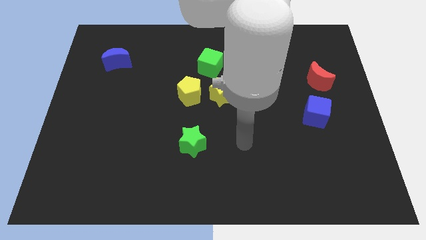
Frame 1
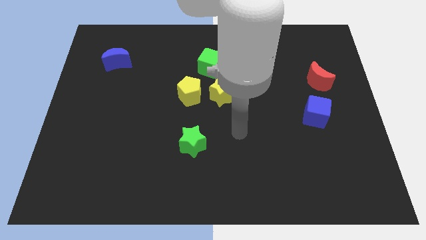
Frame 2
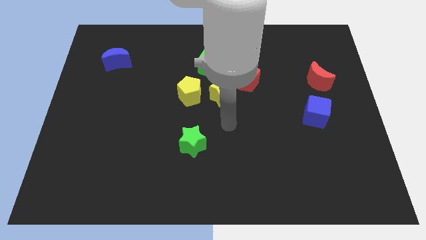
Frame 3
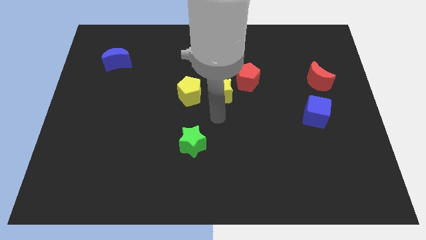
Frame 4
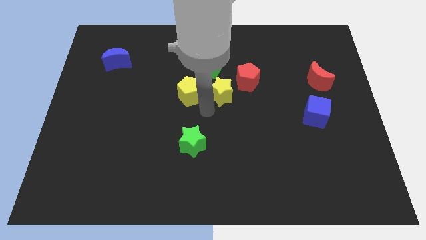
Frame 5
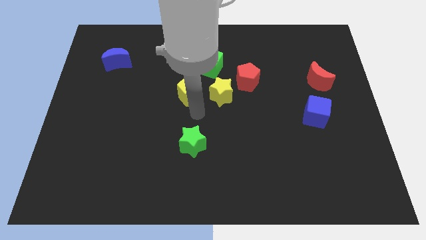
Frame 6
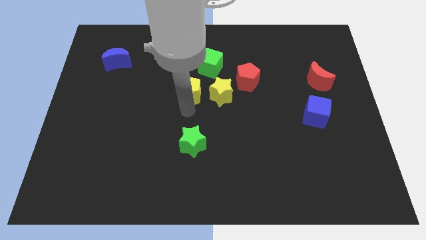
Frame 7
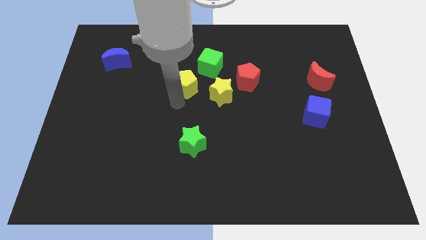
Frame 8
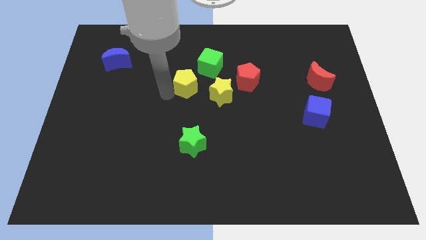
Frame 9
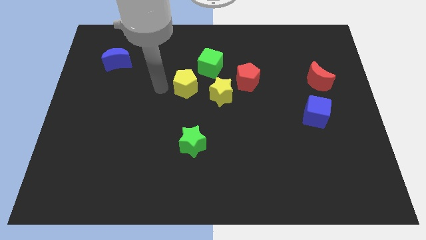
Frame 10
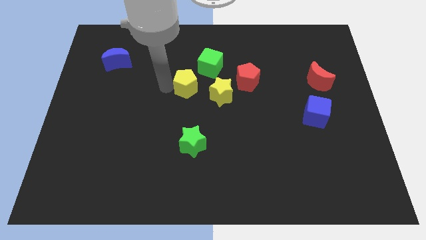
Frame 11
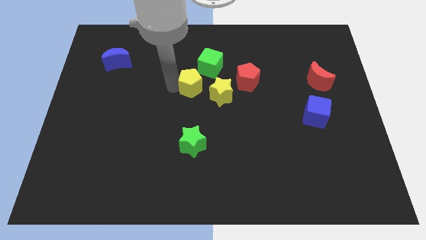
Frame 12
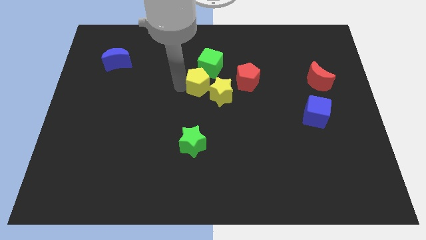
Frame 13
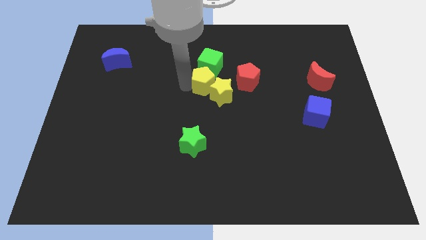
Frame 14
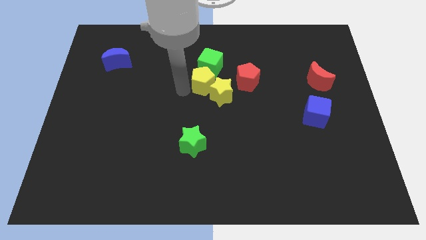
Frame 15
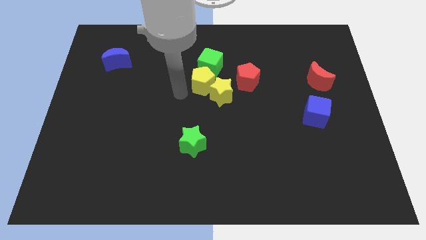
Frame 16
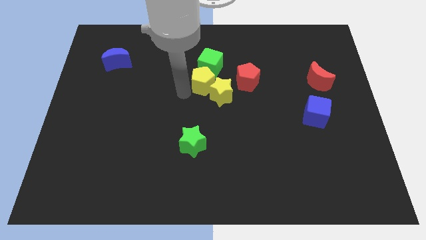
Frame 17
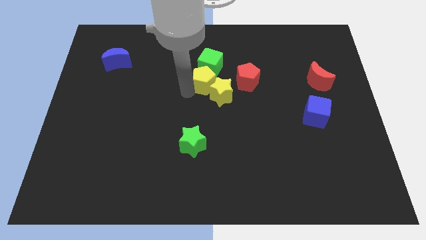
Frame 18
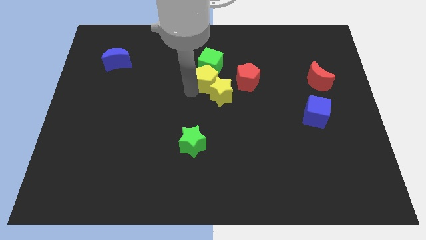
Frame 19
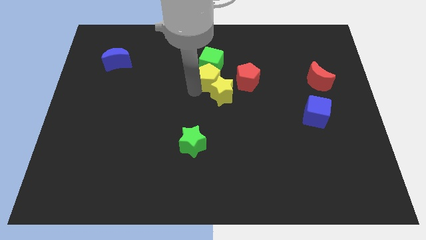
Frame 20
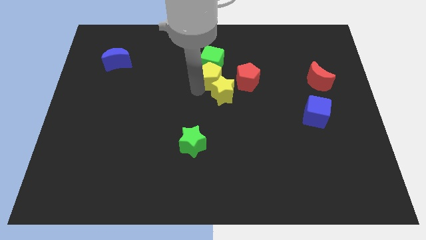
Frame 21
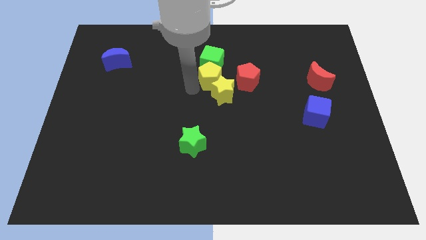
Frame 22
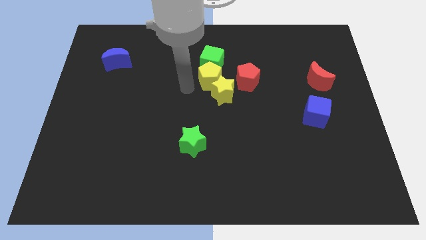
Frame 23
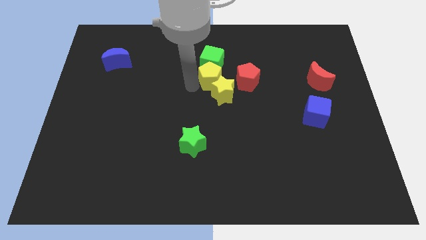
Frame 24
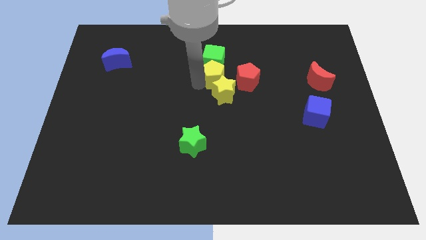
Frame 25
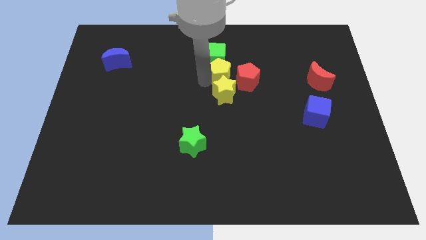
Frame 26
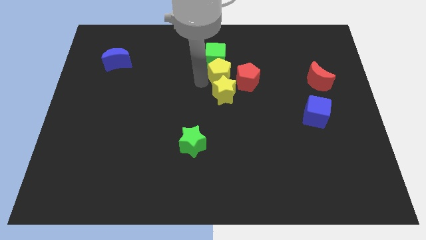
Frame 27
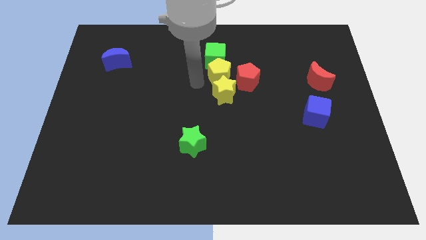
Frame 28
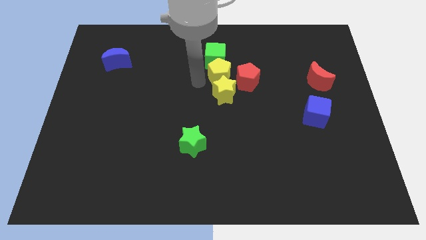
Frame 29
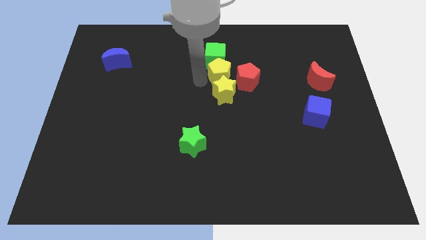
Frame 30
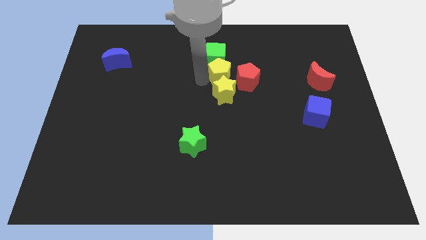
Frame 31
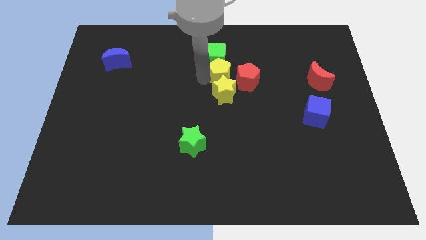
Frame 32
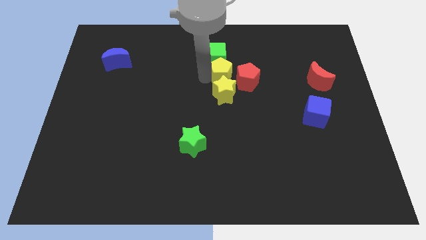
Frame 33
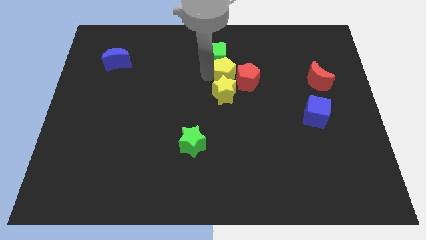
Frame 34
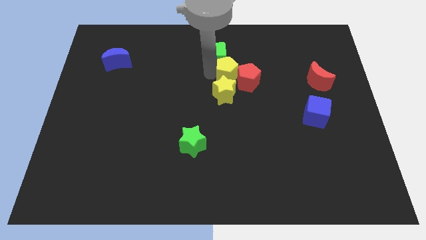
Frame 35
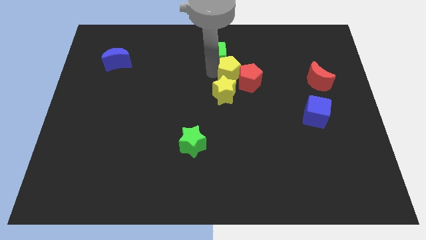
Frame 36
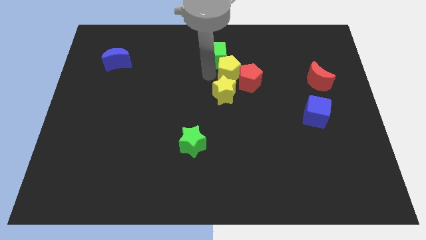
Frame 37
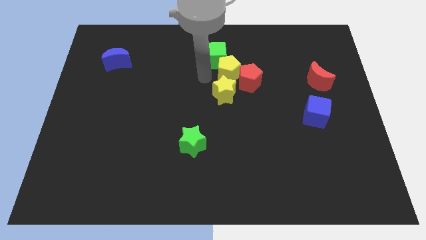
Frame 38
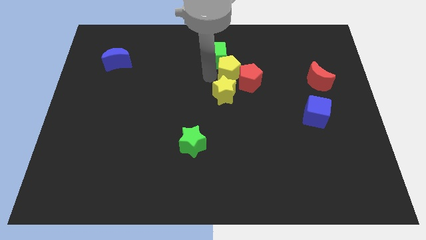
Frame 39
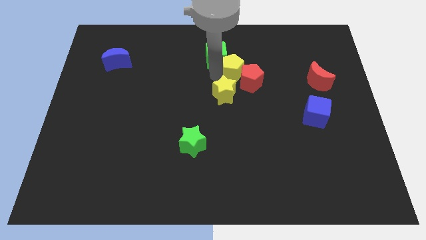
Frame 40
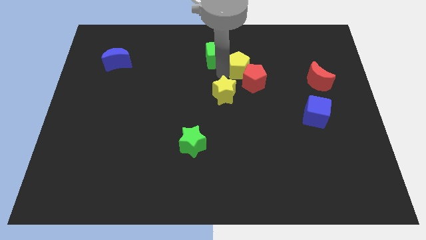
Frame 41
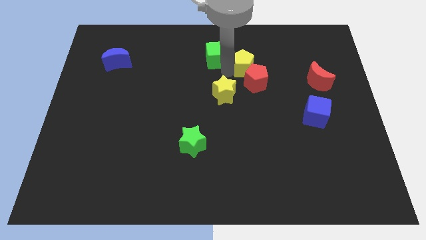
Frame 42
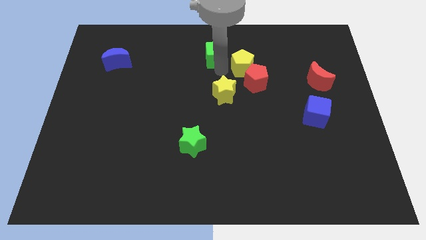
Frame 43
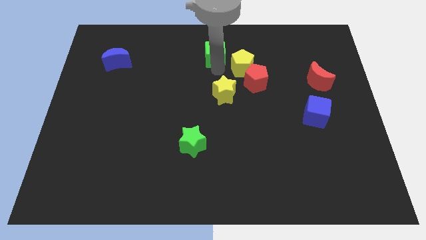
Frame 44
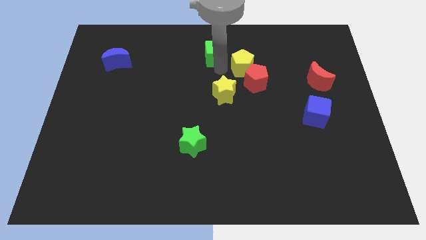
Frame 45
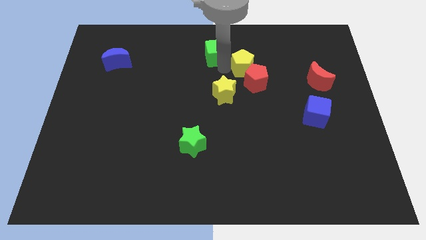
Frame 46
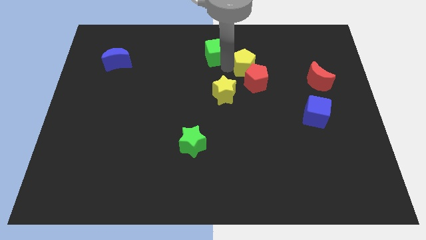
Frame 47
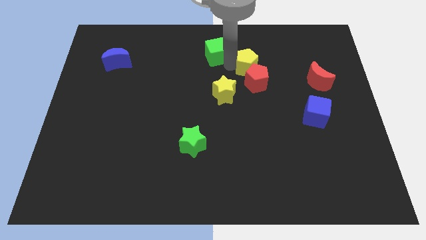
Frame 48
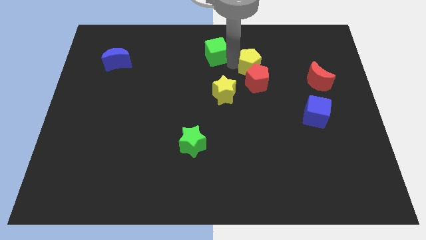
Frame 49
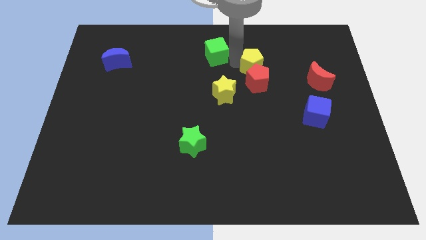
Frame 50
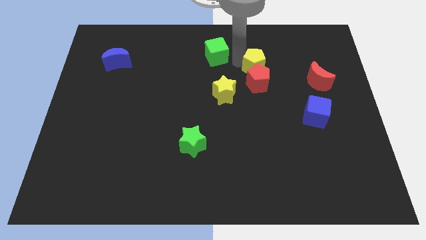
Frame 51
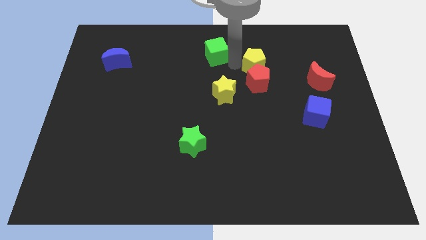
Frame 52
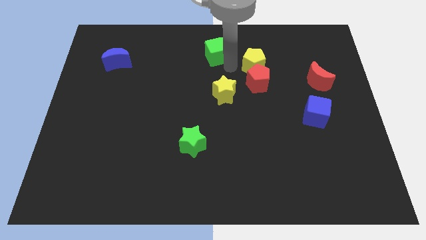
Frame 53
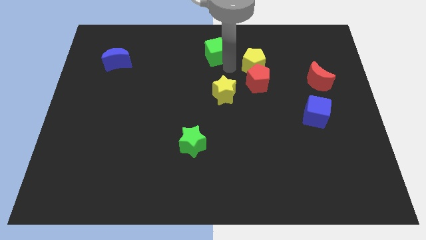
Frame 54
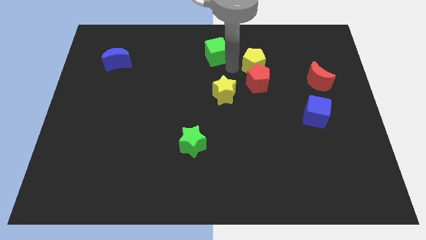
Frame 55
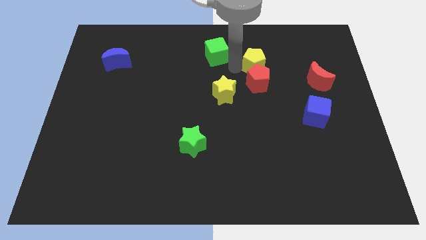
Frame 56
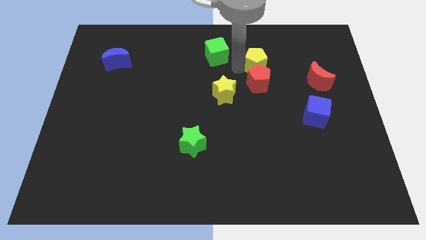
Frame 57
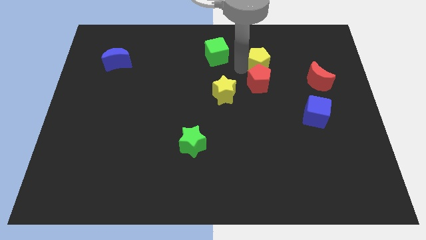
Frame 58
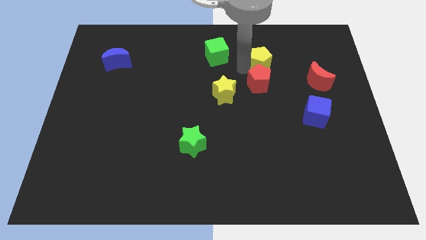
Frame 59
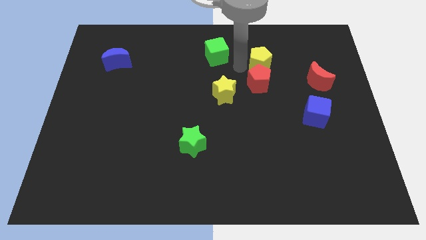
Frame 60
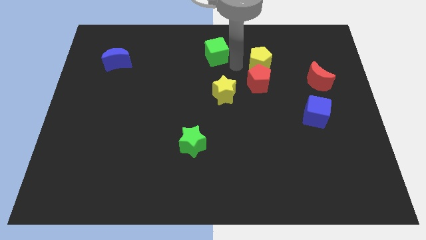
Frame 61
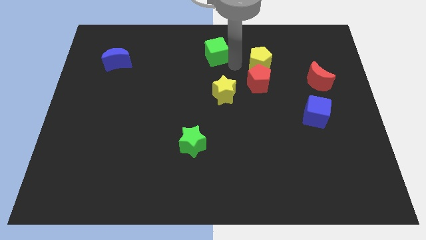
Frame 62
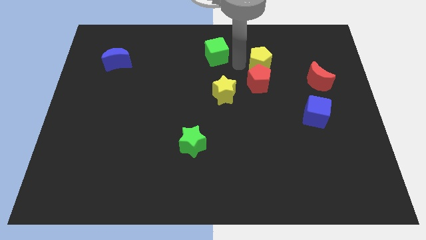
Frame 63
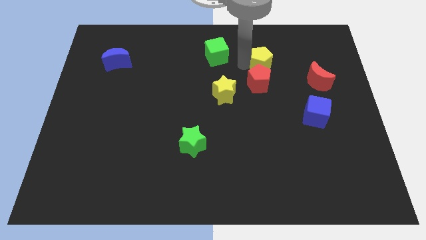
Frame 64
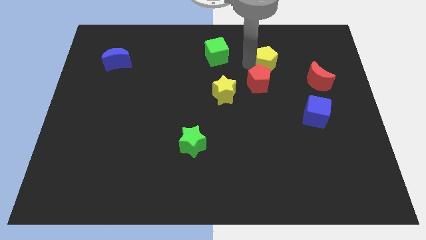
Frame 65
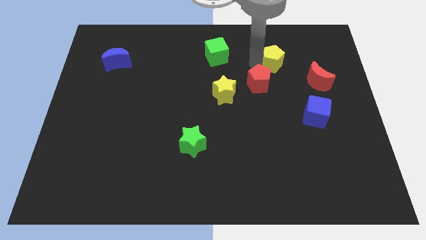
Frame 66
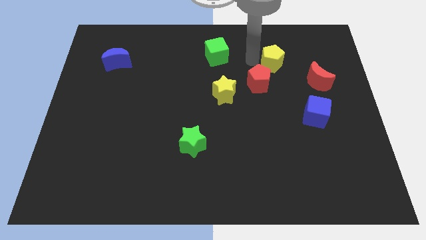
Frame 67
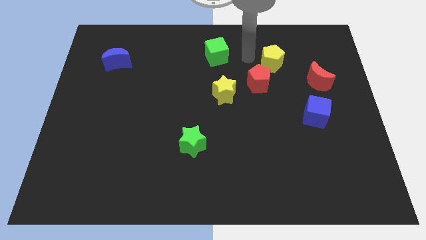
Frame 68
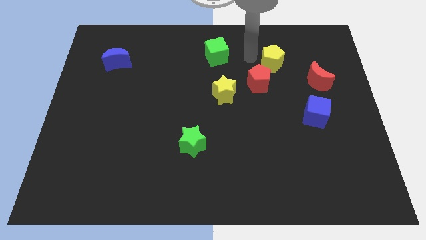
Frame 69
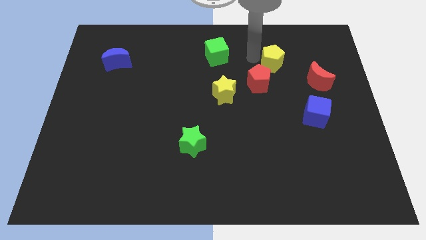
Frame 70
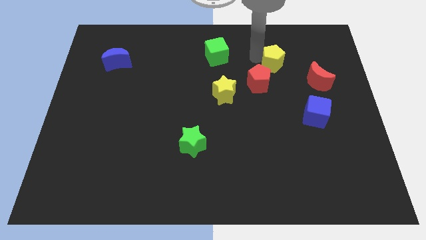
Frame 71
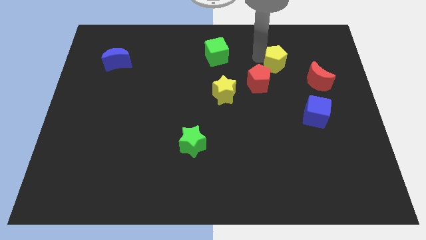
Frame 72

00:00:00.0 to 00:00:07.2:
slide the yellow pentagon to the top left side of the red moon

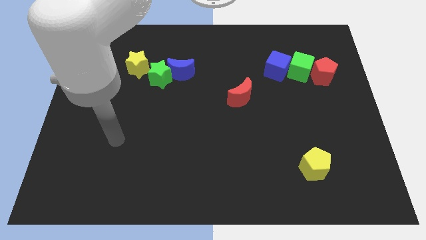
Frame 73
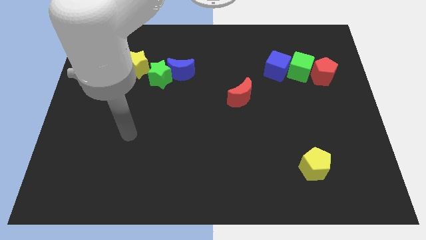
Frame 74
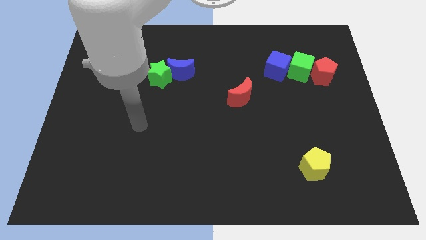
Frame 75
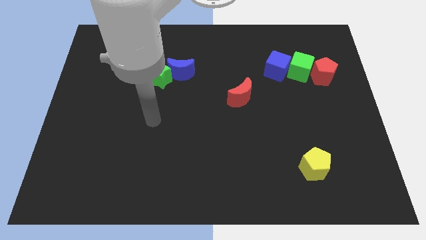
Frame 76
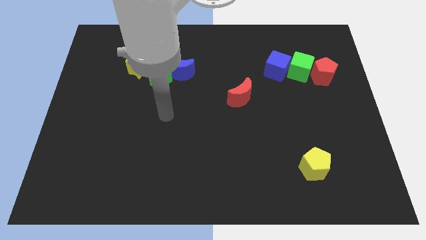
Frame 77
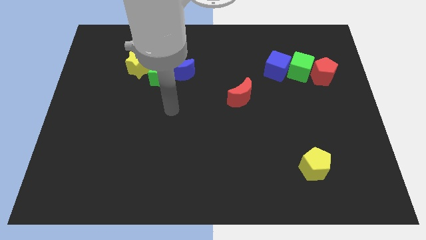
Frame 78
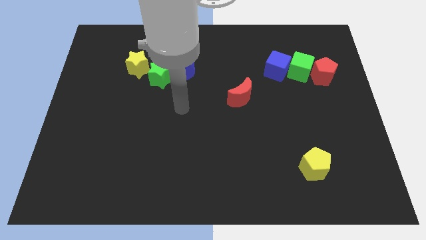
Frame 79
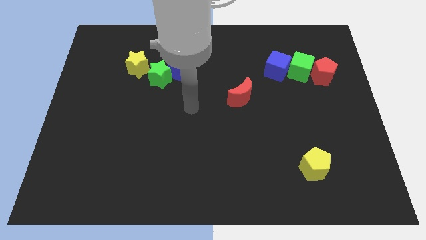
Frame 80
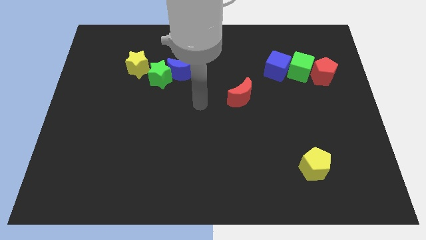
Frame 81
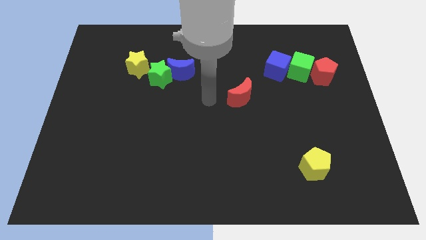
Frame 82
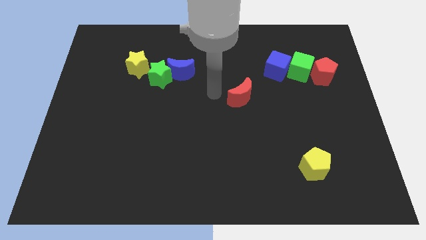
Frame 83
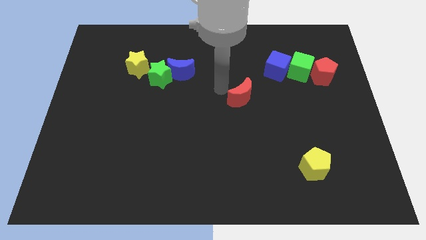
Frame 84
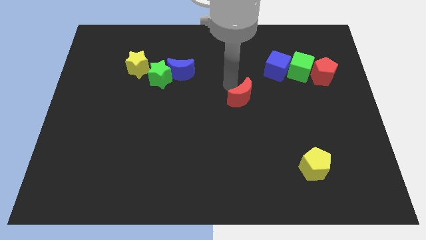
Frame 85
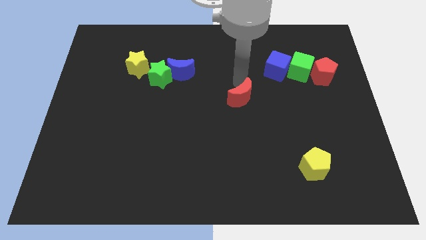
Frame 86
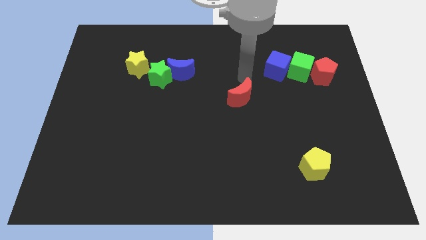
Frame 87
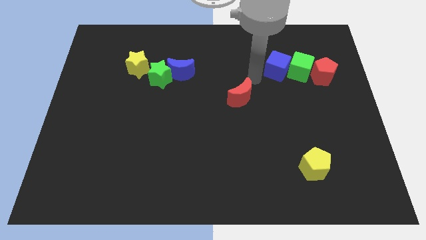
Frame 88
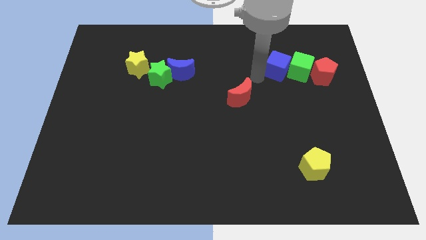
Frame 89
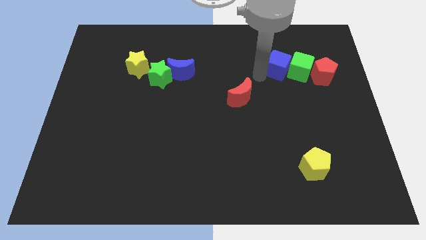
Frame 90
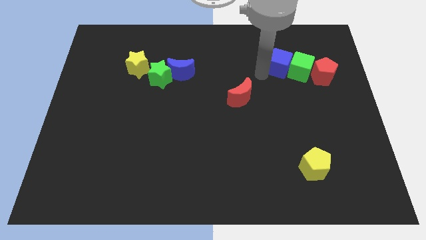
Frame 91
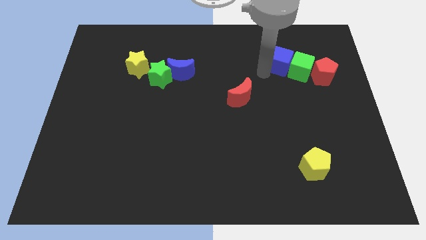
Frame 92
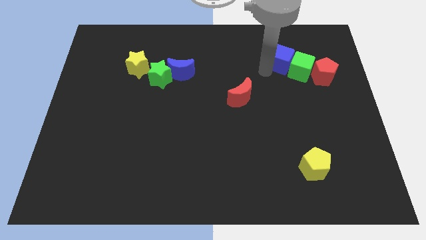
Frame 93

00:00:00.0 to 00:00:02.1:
slide the blue cube diagonally up and to the left of the red pentagon
